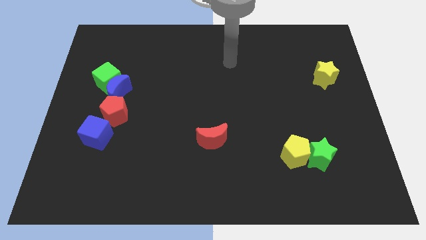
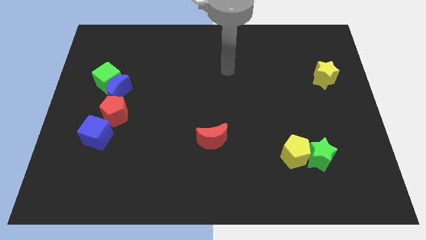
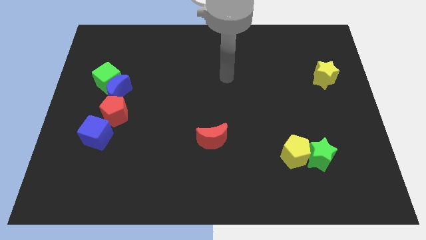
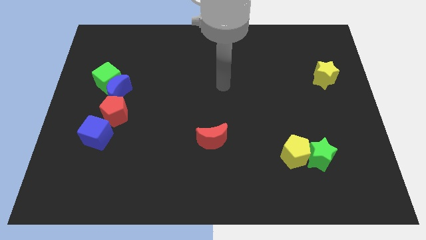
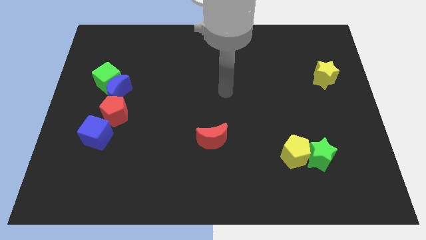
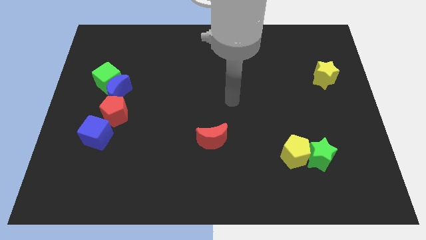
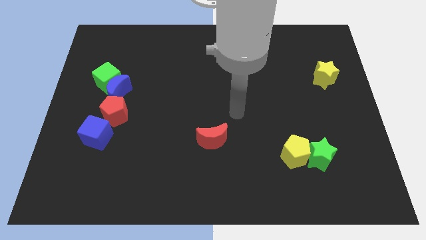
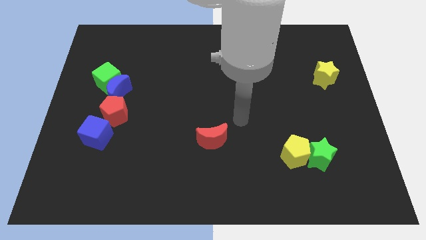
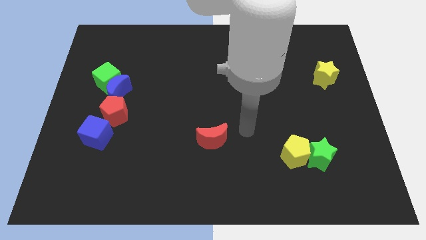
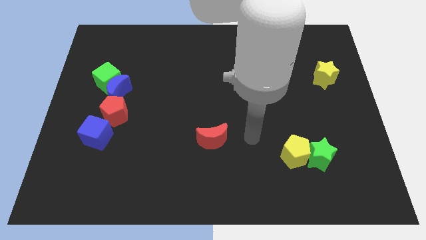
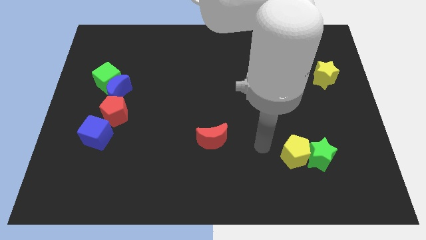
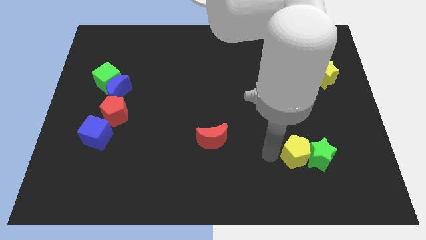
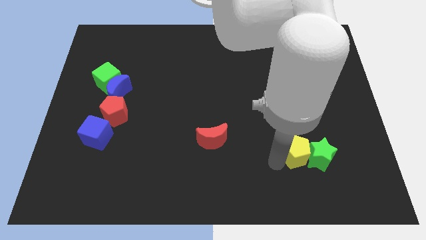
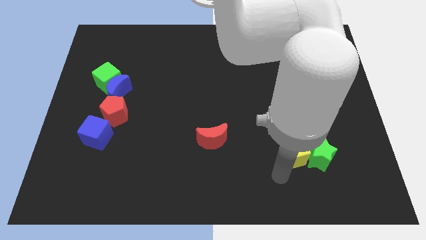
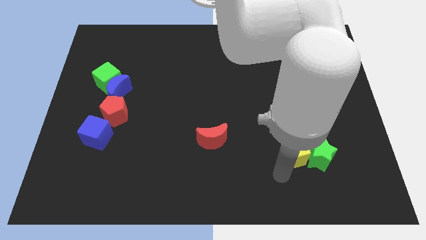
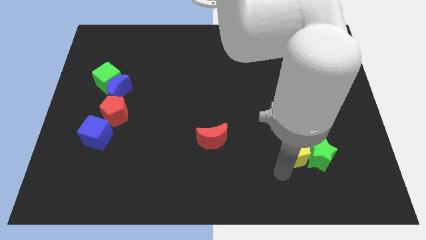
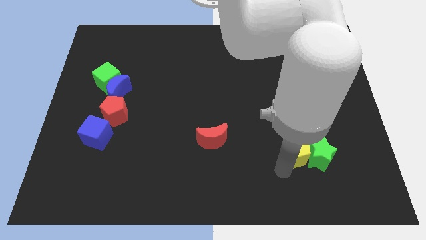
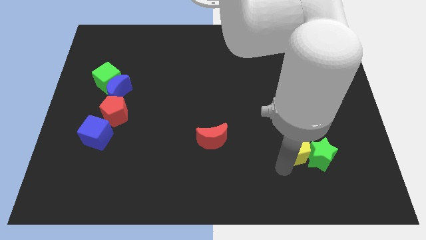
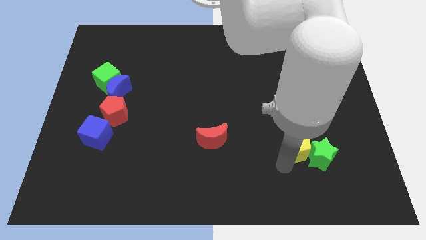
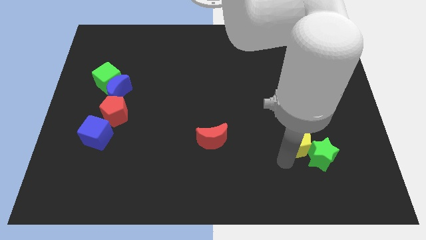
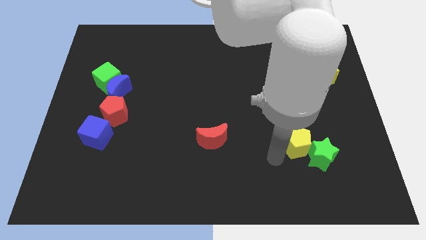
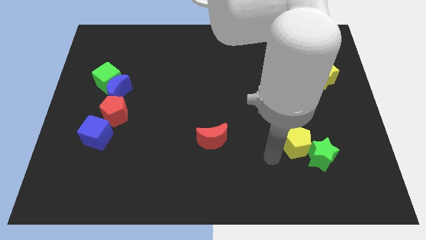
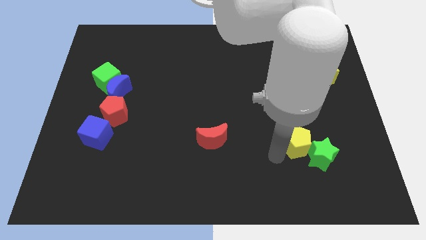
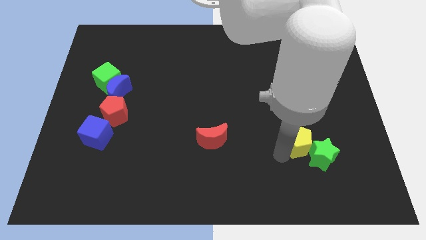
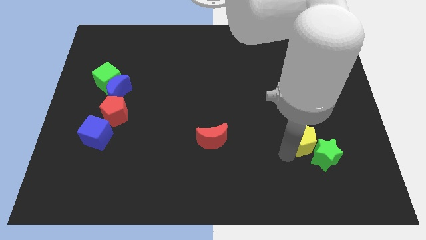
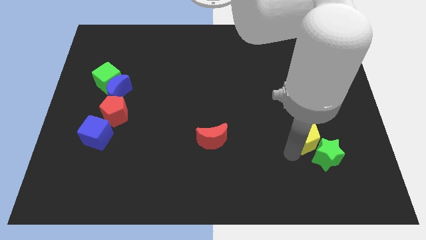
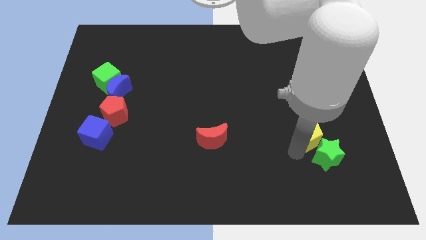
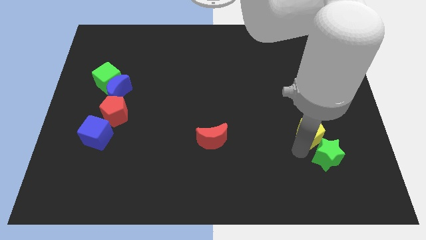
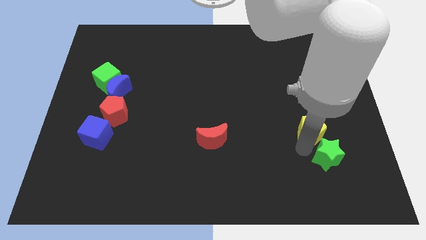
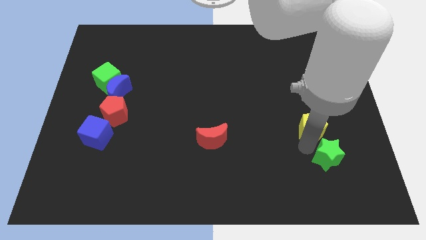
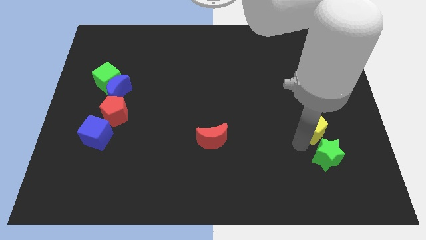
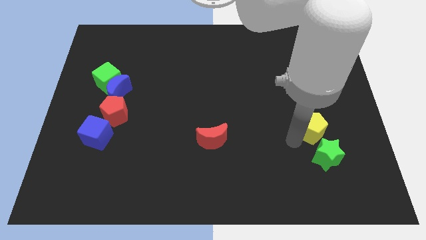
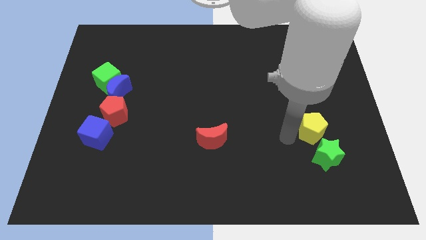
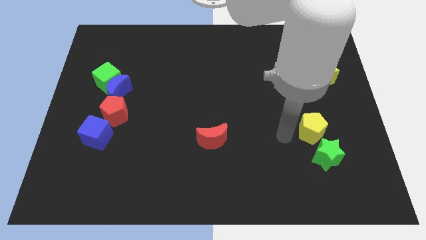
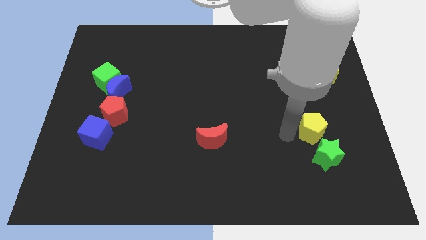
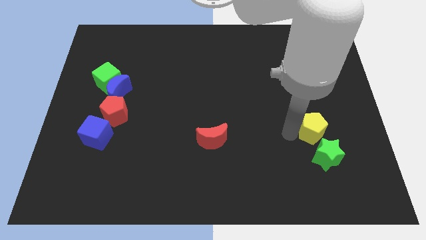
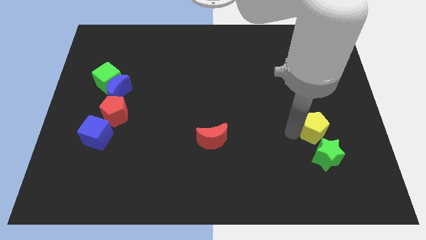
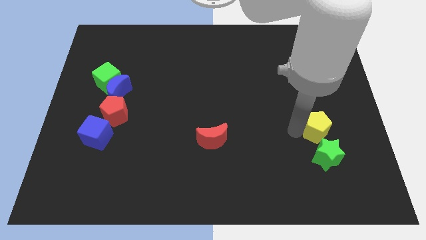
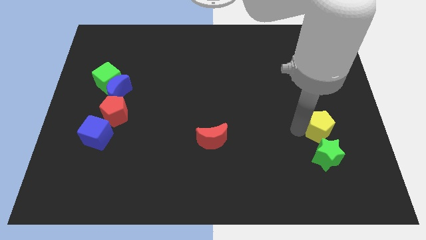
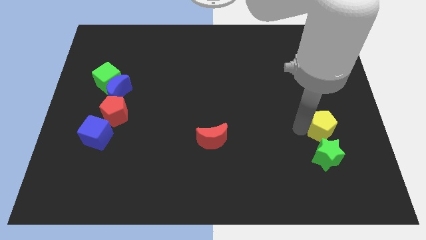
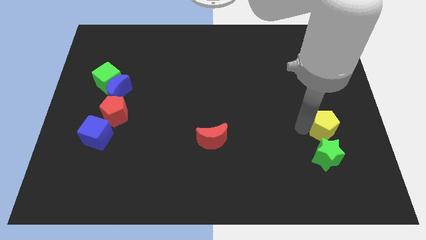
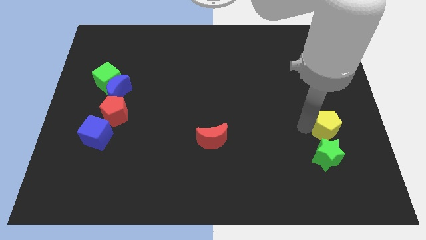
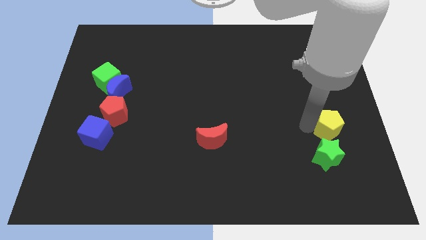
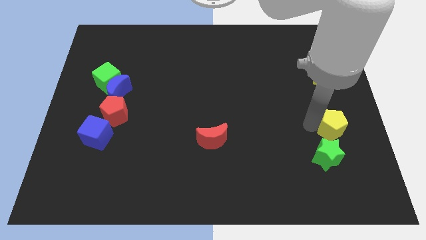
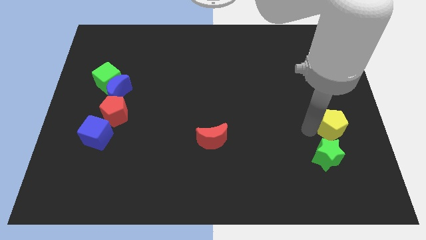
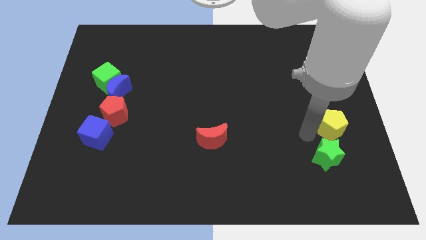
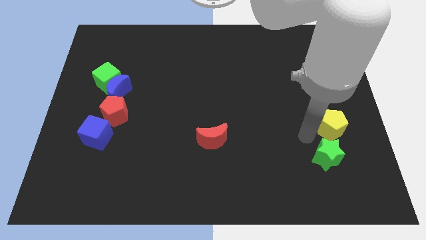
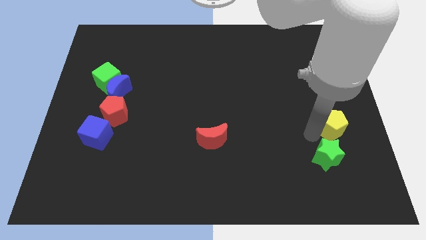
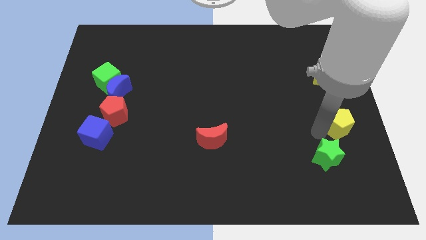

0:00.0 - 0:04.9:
put the yellow pentagon to the center right

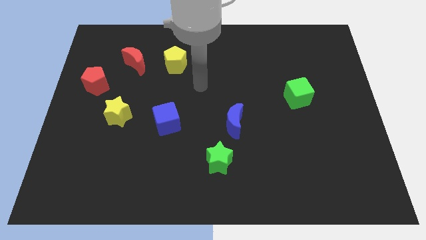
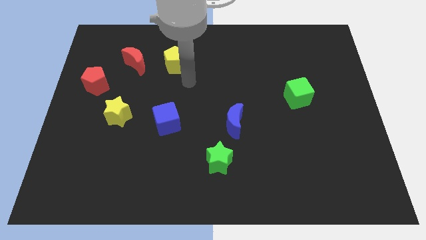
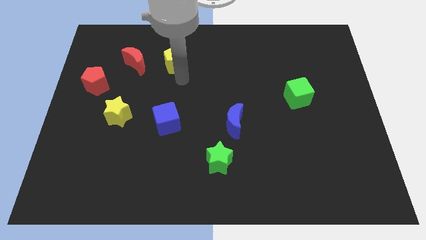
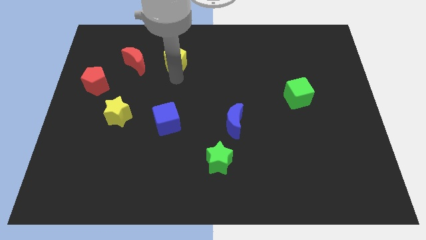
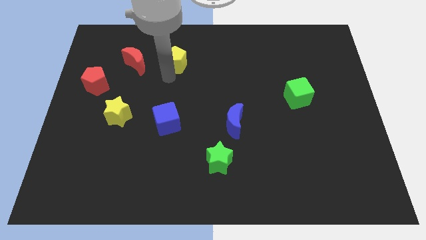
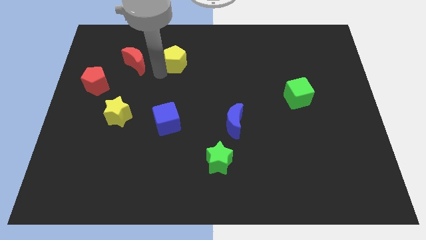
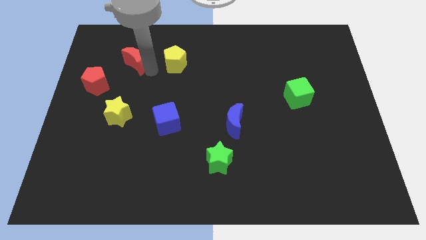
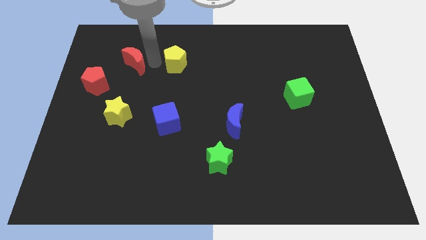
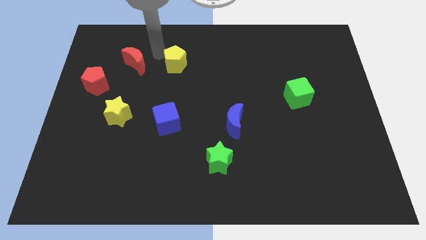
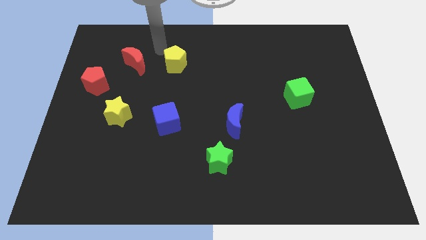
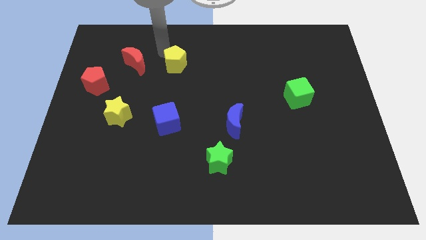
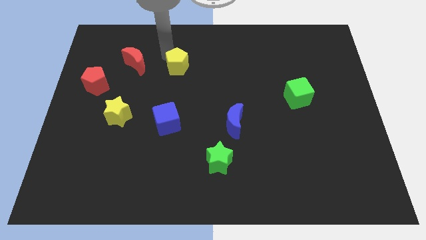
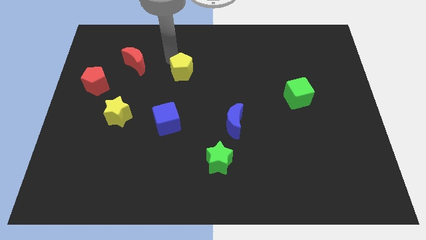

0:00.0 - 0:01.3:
push the yellow pentagon to the middle
